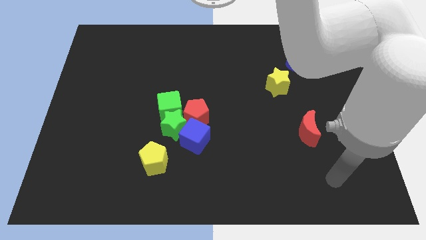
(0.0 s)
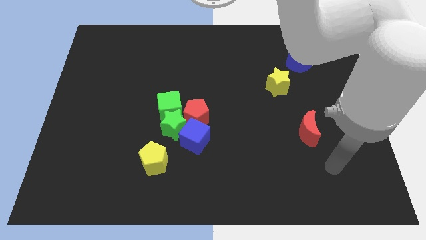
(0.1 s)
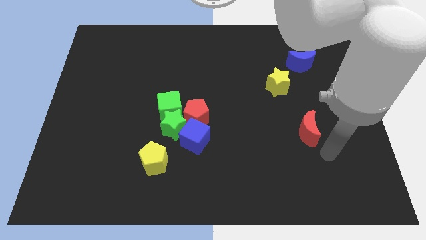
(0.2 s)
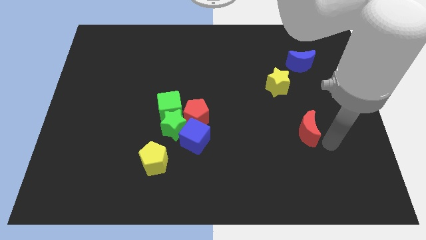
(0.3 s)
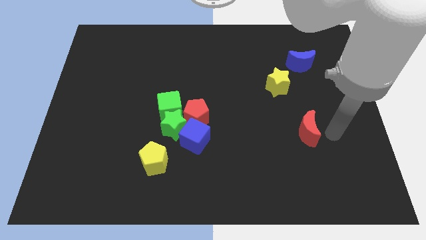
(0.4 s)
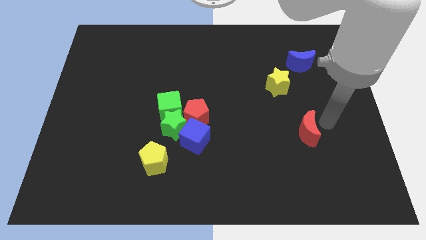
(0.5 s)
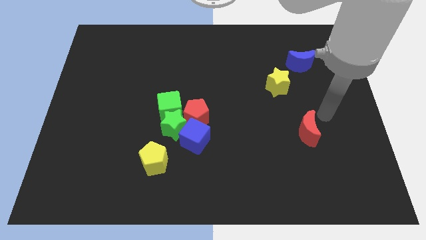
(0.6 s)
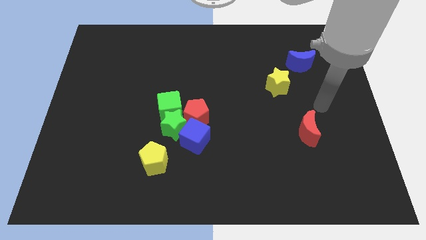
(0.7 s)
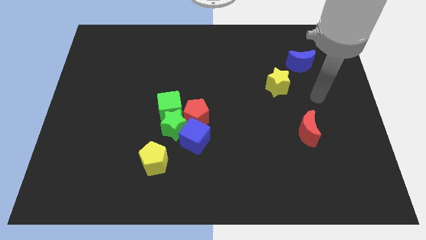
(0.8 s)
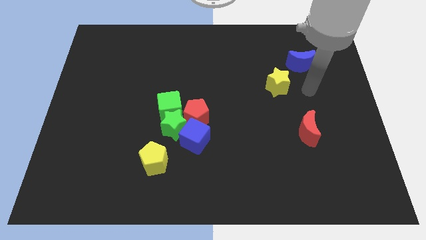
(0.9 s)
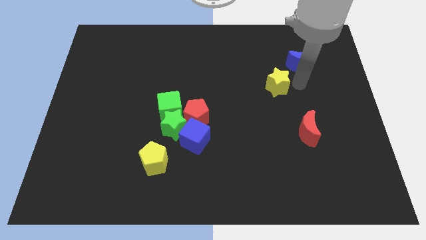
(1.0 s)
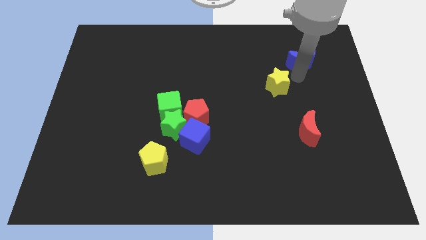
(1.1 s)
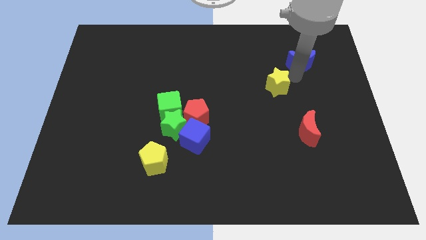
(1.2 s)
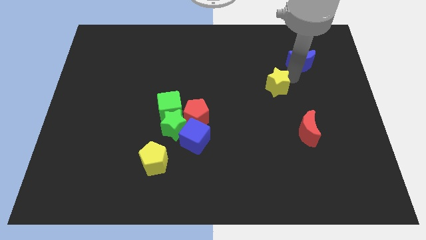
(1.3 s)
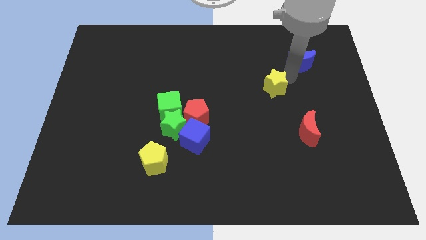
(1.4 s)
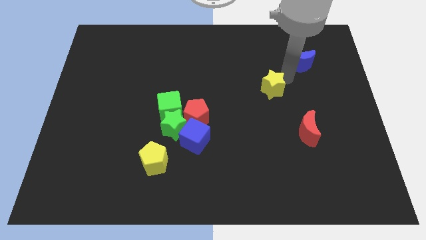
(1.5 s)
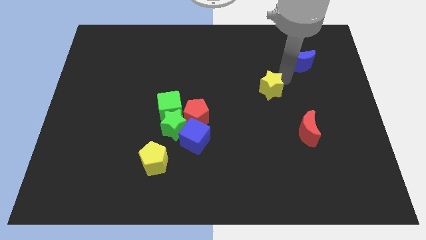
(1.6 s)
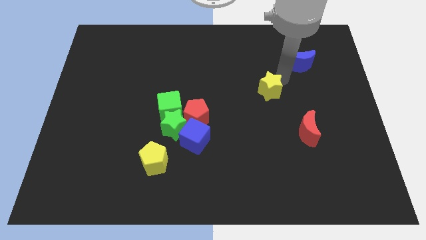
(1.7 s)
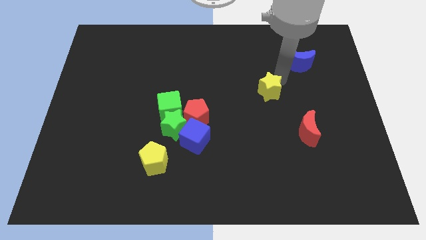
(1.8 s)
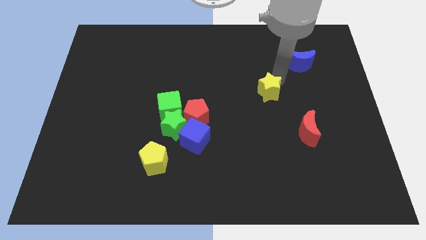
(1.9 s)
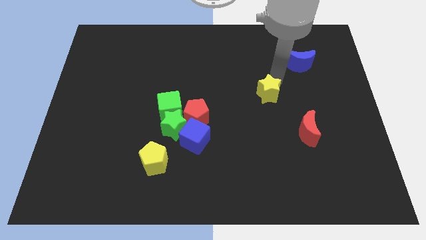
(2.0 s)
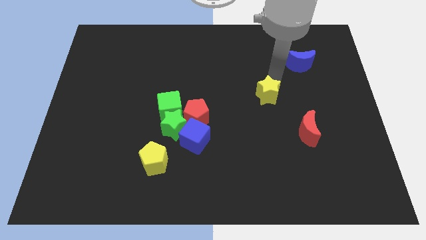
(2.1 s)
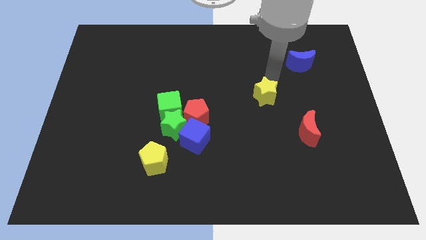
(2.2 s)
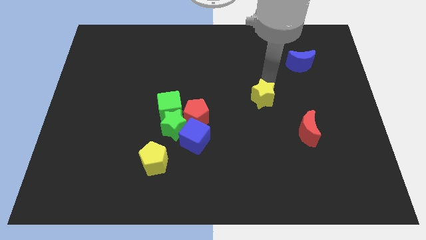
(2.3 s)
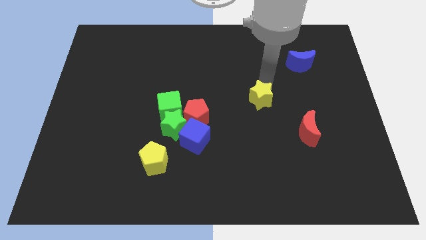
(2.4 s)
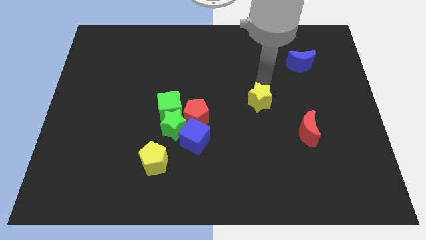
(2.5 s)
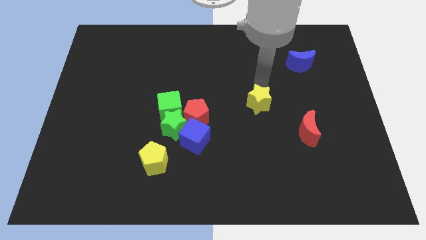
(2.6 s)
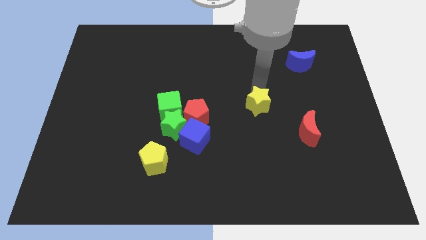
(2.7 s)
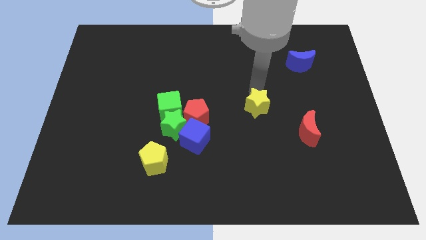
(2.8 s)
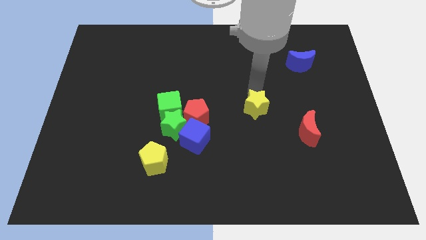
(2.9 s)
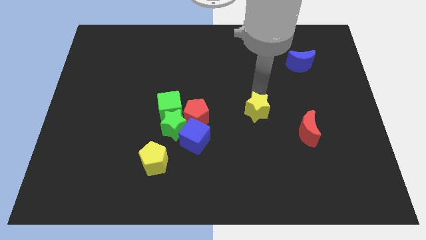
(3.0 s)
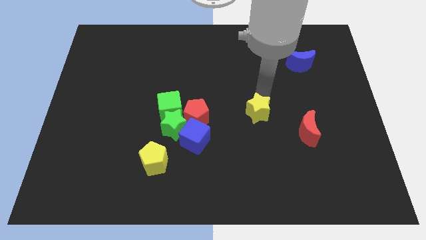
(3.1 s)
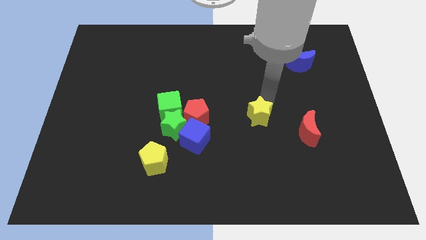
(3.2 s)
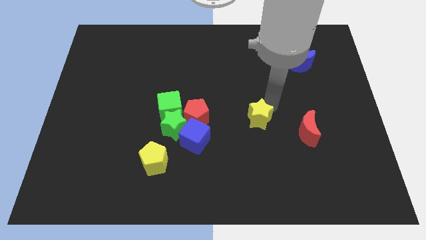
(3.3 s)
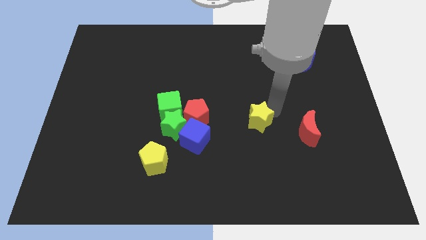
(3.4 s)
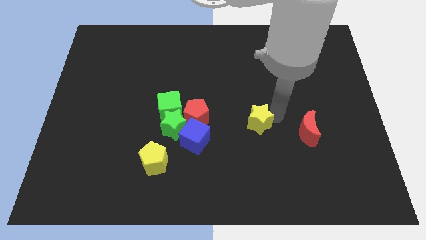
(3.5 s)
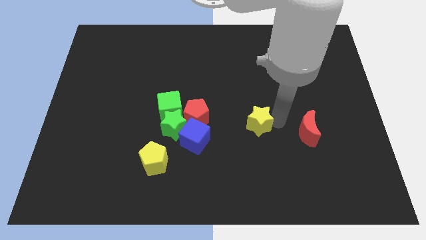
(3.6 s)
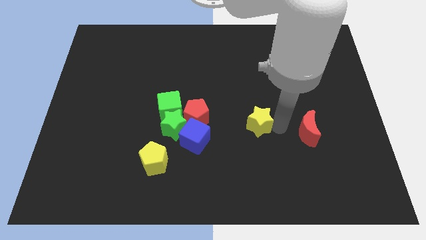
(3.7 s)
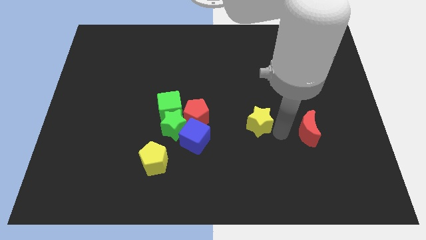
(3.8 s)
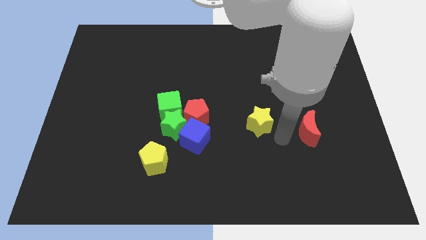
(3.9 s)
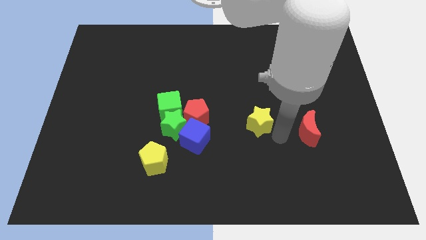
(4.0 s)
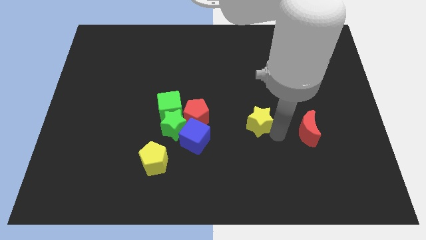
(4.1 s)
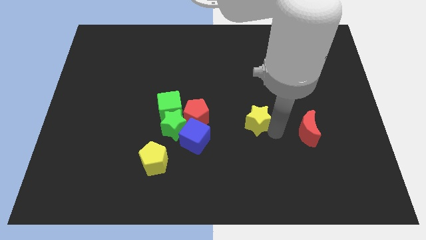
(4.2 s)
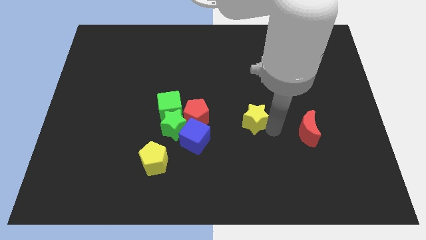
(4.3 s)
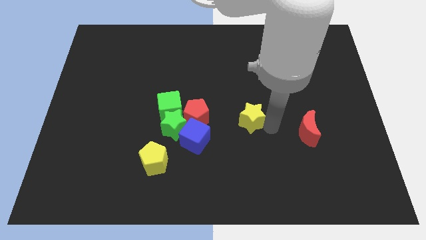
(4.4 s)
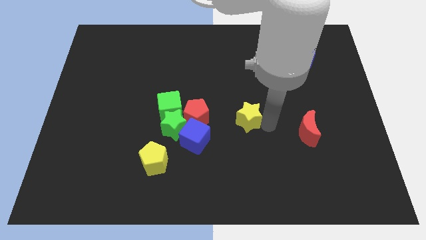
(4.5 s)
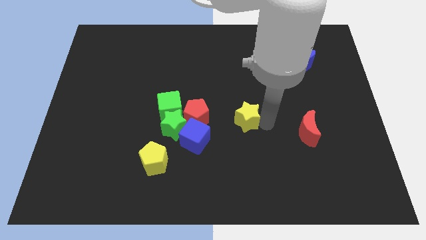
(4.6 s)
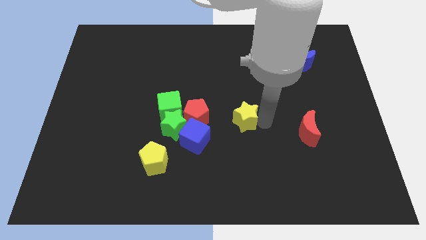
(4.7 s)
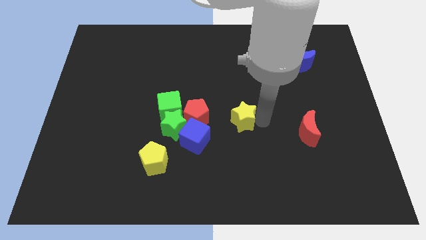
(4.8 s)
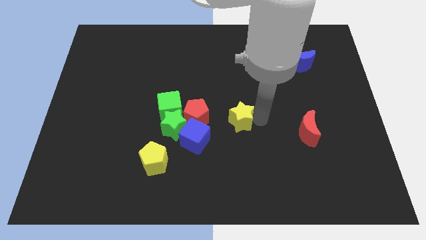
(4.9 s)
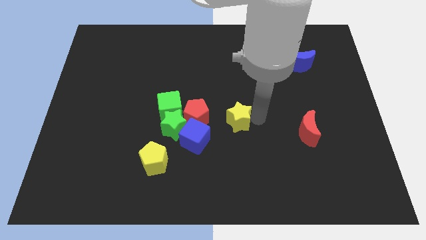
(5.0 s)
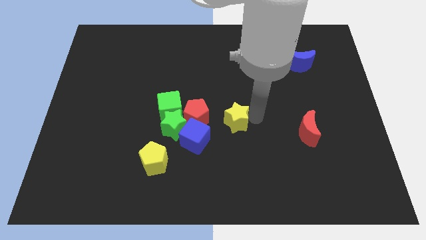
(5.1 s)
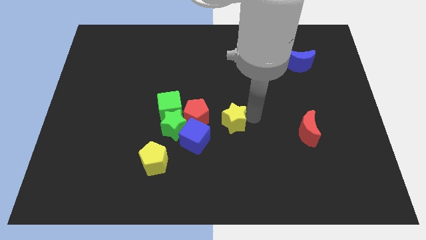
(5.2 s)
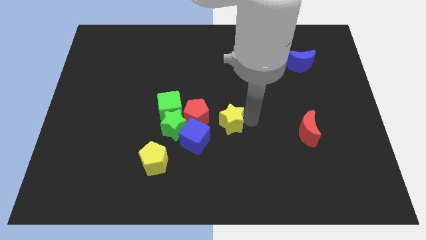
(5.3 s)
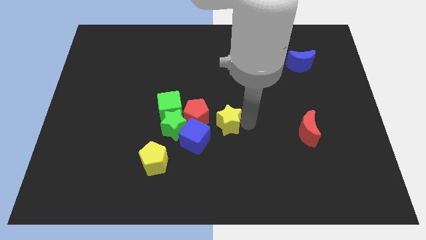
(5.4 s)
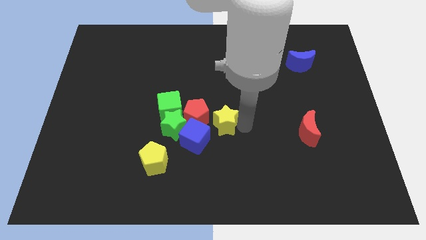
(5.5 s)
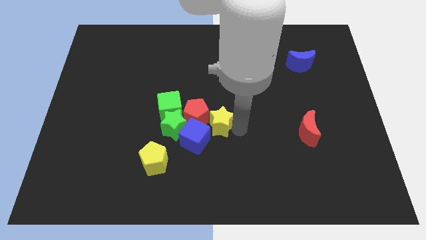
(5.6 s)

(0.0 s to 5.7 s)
move the yellow star next to the red pentagon

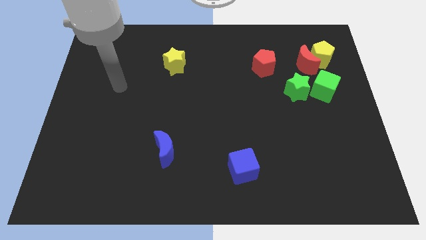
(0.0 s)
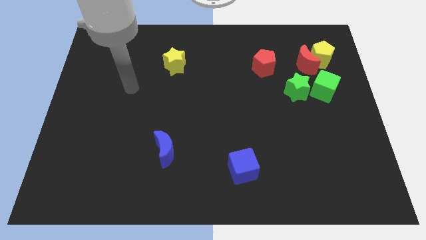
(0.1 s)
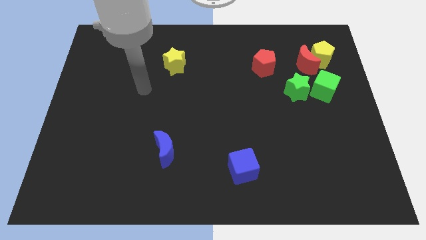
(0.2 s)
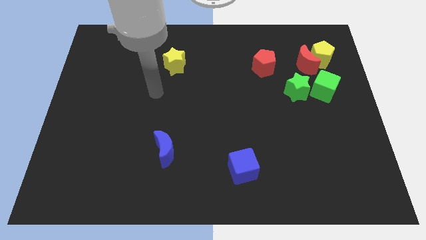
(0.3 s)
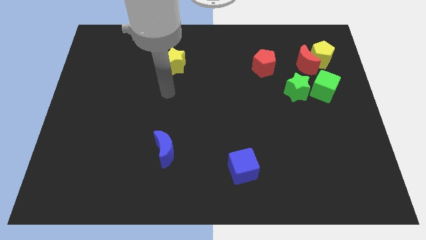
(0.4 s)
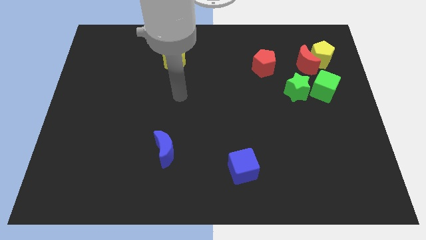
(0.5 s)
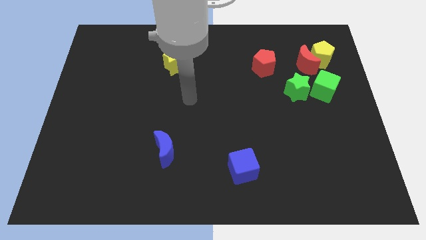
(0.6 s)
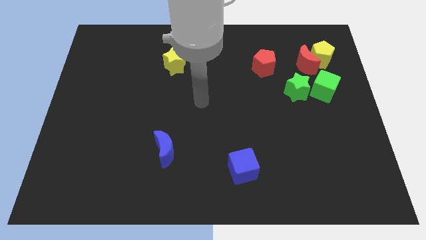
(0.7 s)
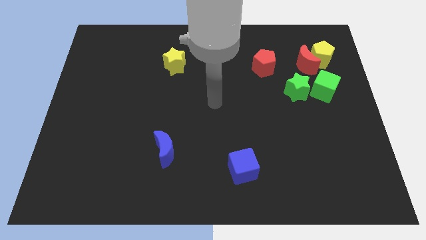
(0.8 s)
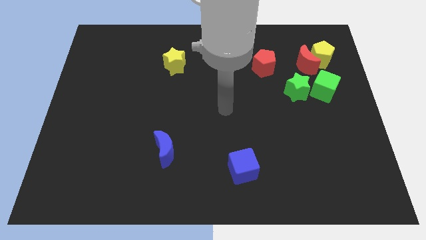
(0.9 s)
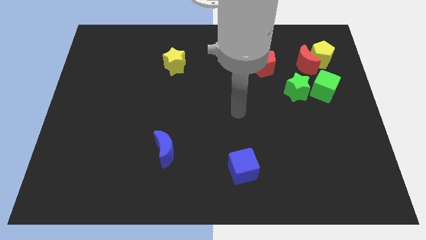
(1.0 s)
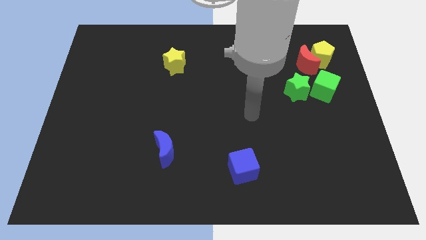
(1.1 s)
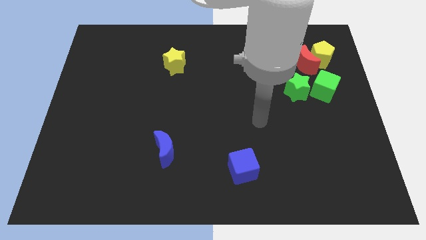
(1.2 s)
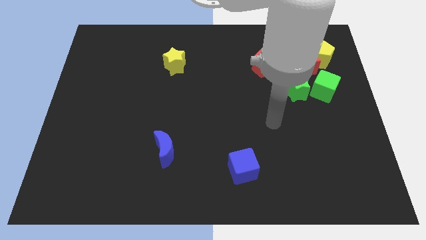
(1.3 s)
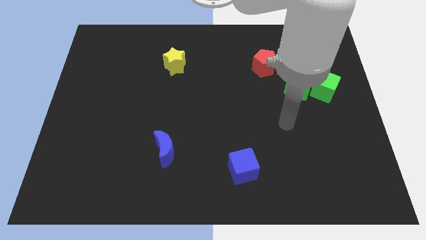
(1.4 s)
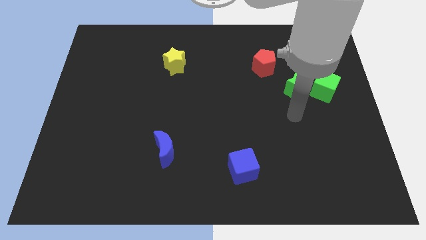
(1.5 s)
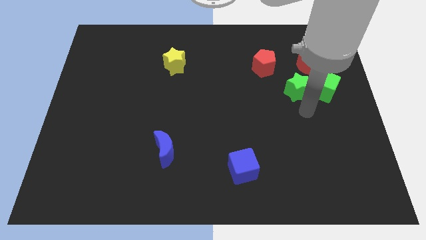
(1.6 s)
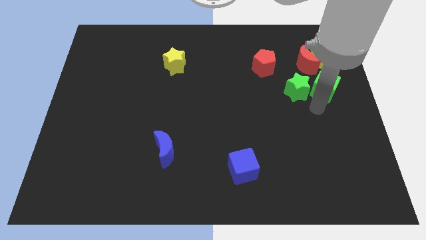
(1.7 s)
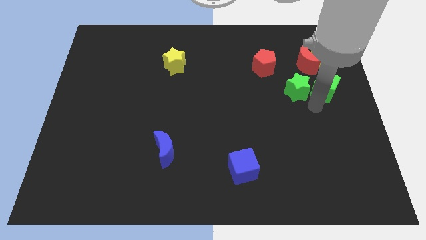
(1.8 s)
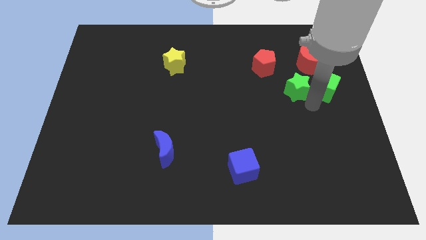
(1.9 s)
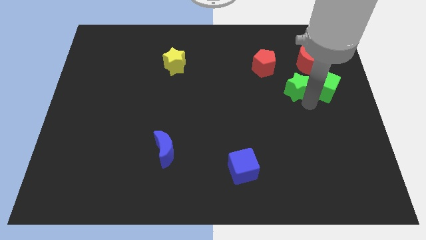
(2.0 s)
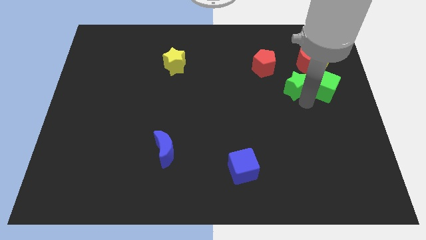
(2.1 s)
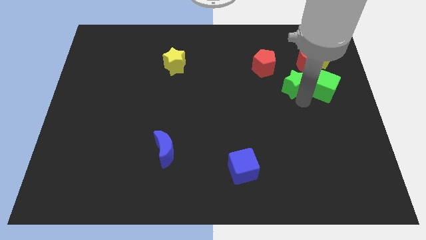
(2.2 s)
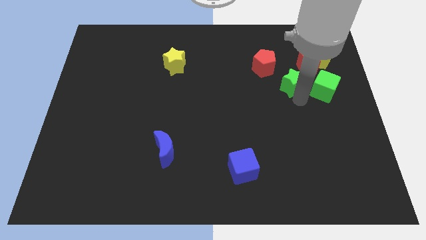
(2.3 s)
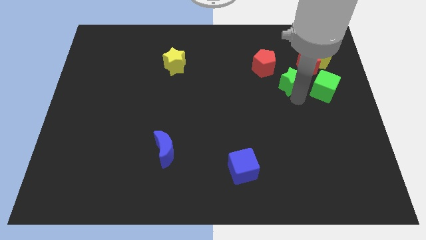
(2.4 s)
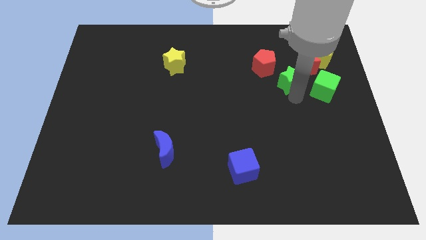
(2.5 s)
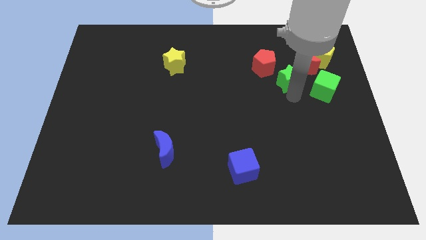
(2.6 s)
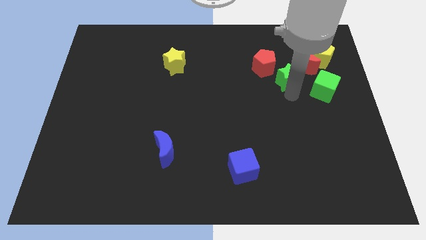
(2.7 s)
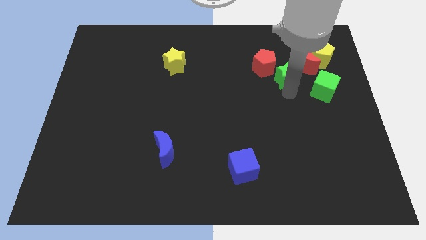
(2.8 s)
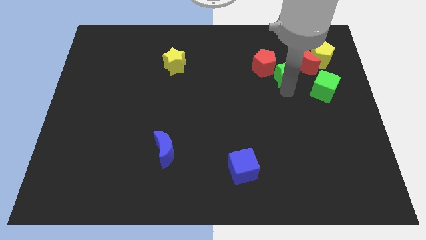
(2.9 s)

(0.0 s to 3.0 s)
put the green star next to the red pentagon
